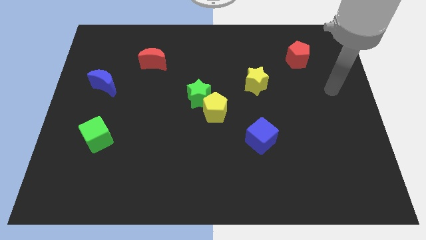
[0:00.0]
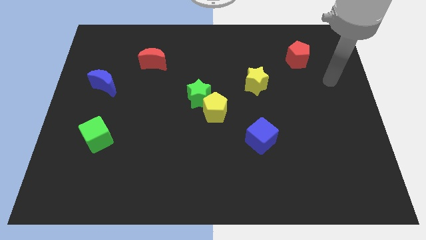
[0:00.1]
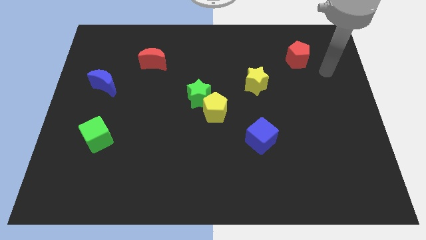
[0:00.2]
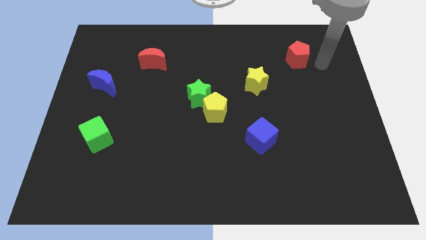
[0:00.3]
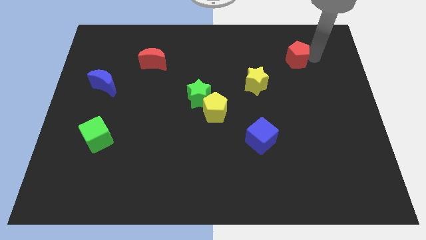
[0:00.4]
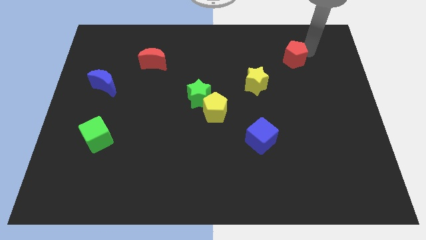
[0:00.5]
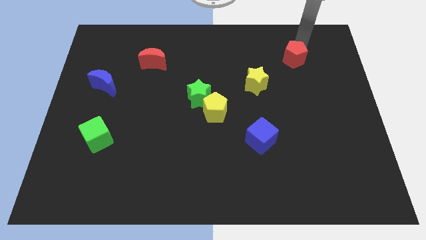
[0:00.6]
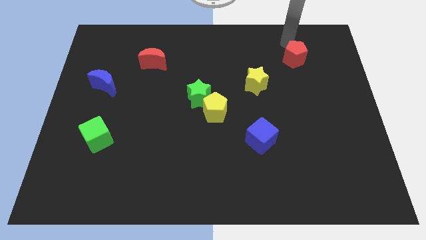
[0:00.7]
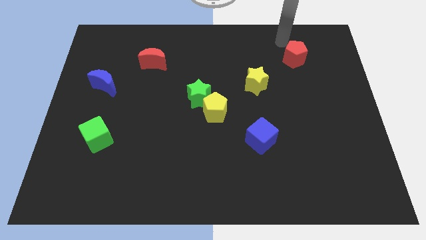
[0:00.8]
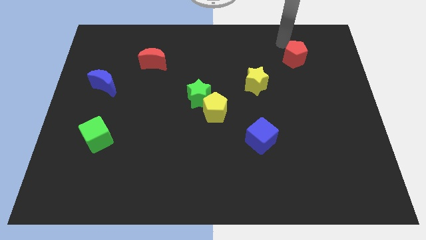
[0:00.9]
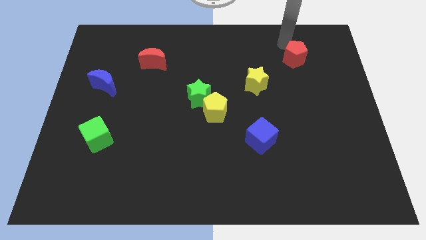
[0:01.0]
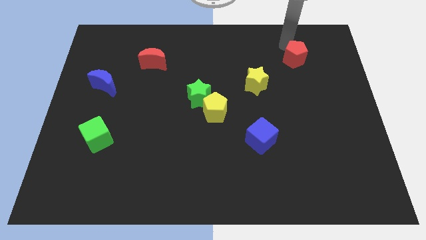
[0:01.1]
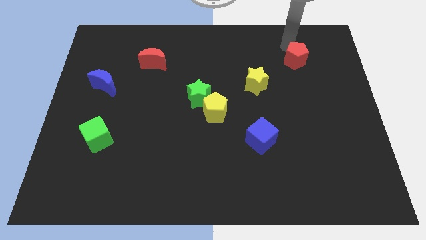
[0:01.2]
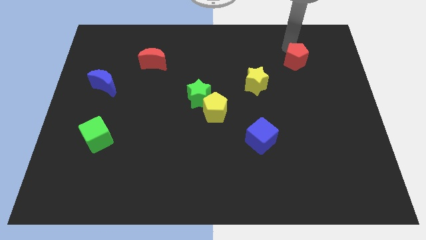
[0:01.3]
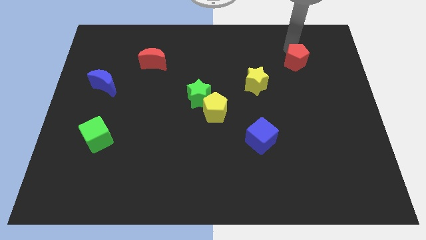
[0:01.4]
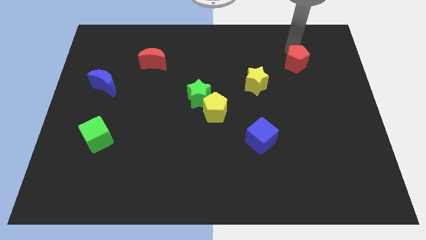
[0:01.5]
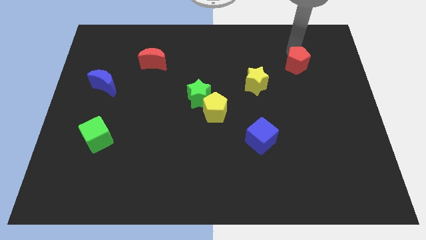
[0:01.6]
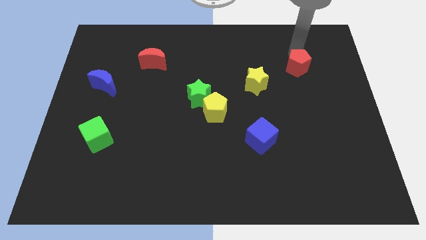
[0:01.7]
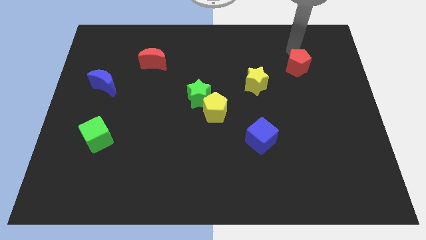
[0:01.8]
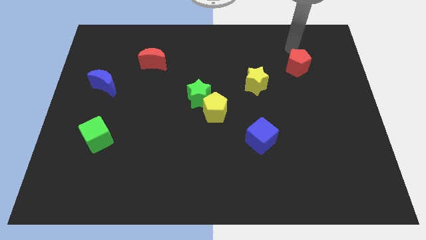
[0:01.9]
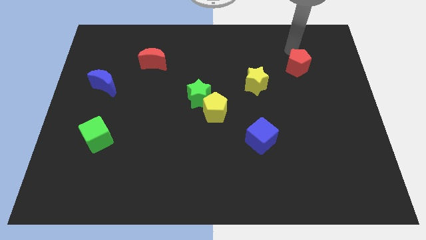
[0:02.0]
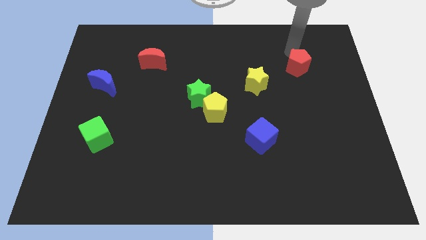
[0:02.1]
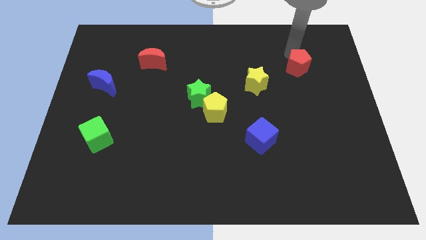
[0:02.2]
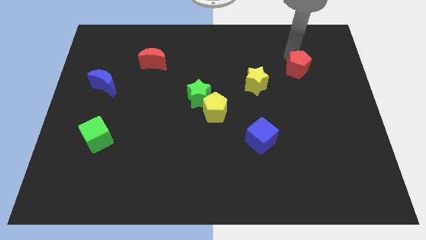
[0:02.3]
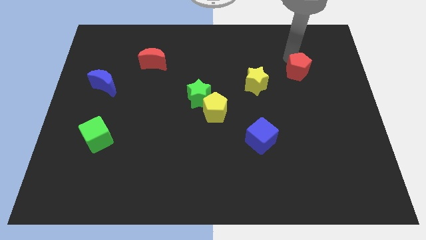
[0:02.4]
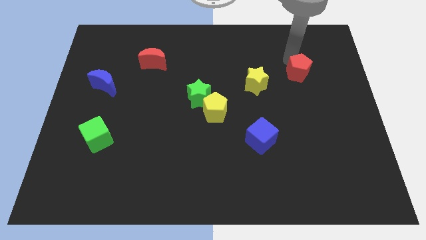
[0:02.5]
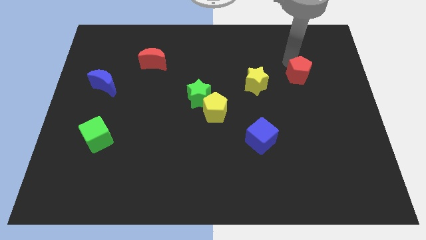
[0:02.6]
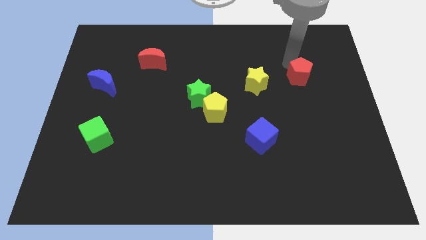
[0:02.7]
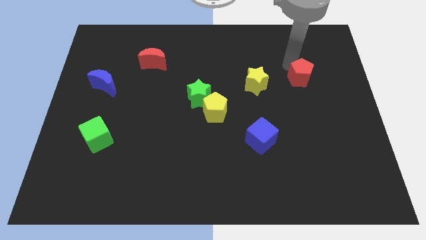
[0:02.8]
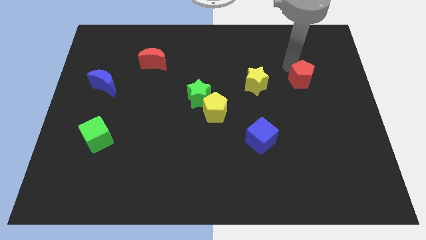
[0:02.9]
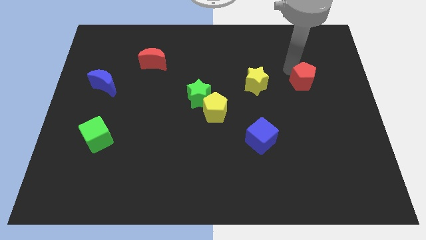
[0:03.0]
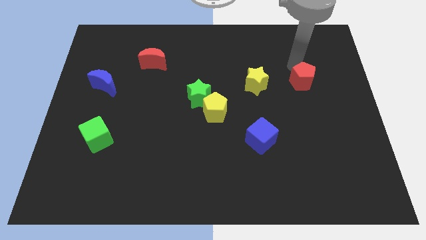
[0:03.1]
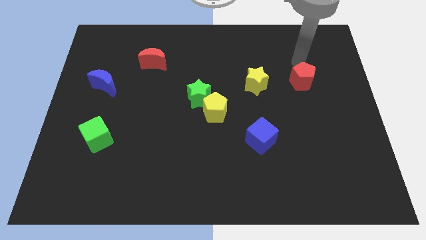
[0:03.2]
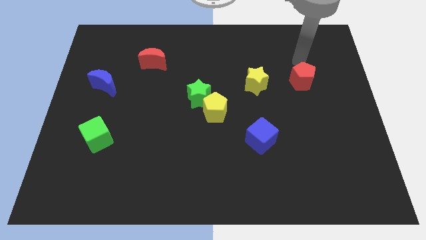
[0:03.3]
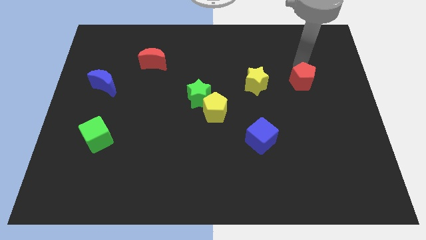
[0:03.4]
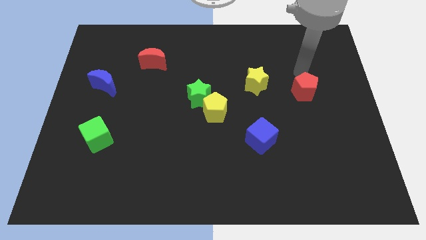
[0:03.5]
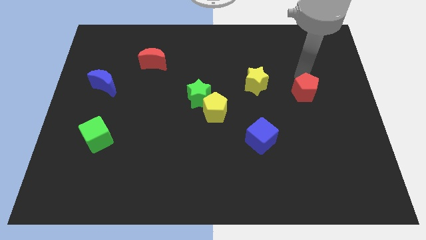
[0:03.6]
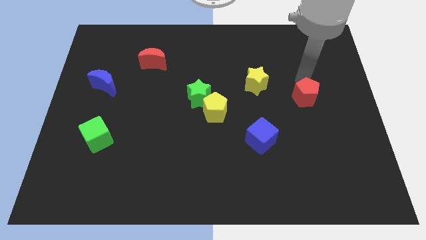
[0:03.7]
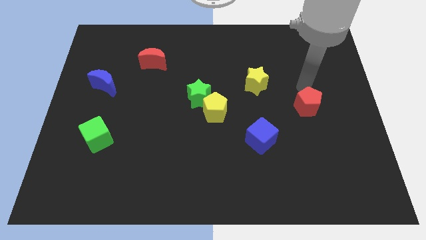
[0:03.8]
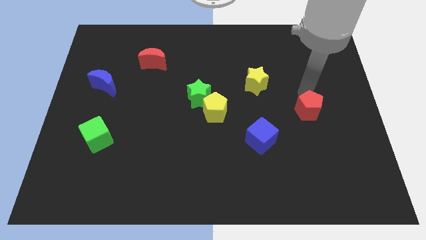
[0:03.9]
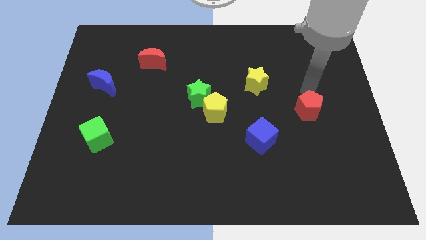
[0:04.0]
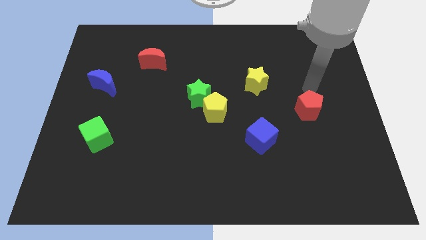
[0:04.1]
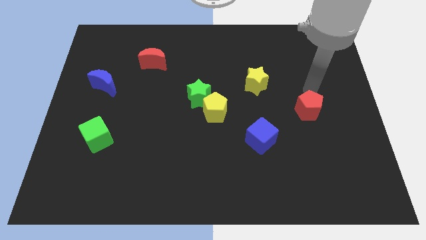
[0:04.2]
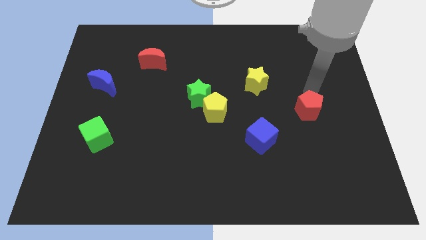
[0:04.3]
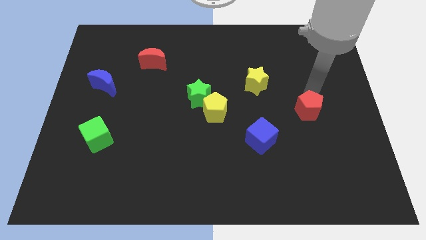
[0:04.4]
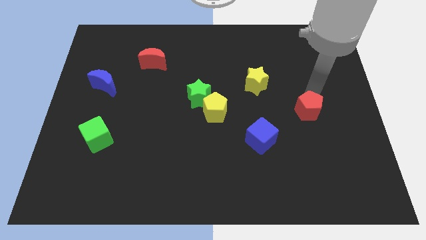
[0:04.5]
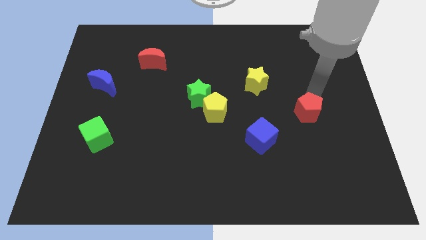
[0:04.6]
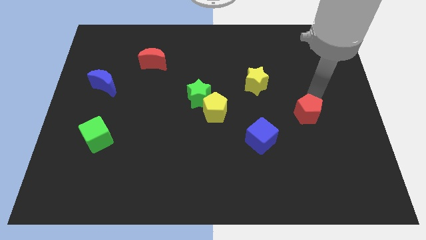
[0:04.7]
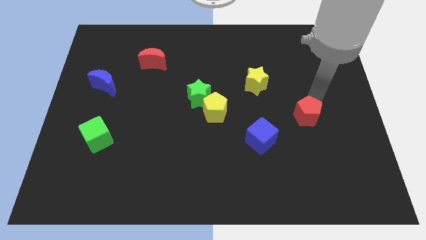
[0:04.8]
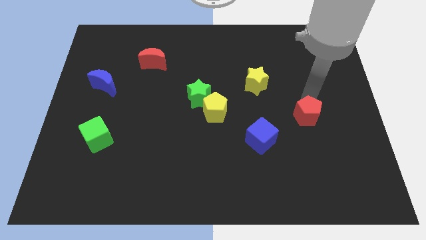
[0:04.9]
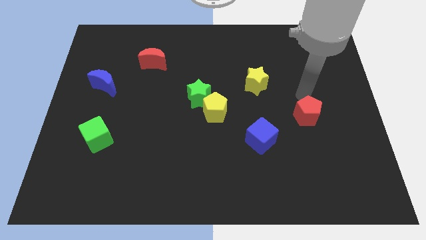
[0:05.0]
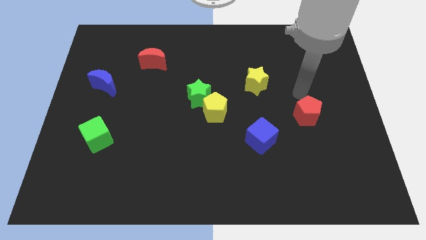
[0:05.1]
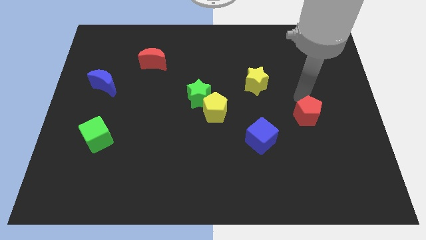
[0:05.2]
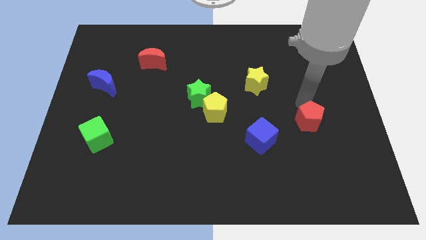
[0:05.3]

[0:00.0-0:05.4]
slide the red pentagon down

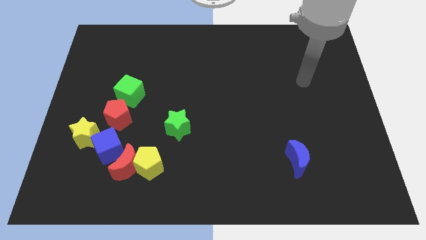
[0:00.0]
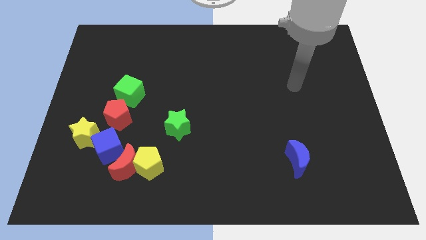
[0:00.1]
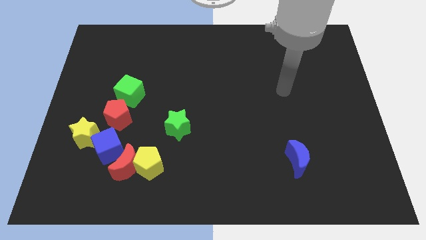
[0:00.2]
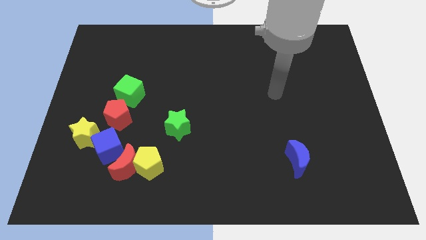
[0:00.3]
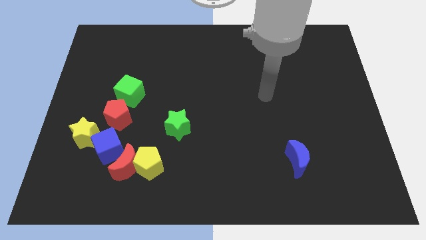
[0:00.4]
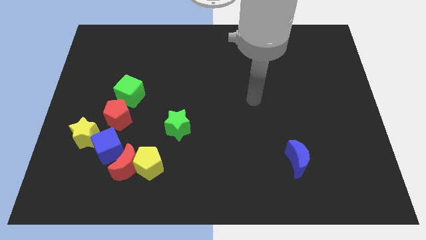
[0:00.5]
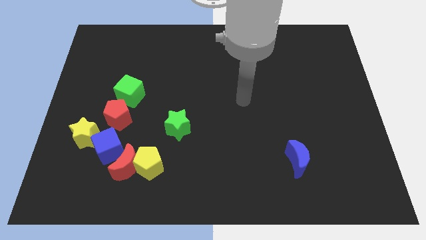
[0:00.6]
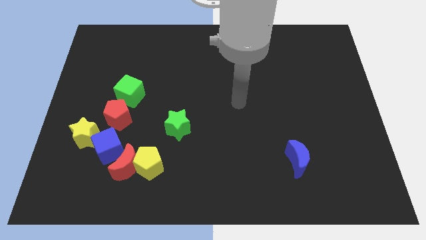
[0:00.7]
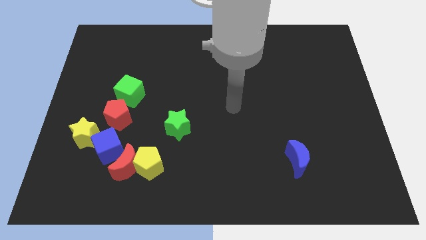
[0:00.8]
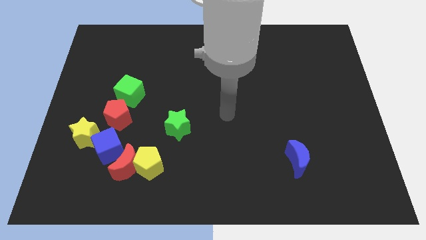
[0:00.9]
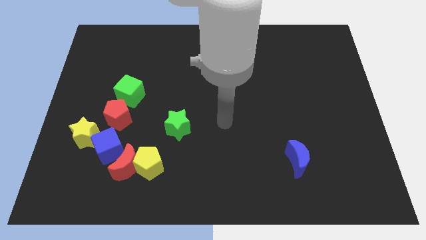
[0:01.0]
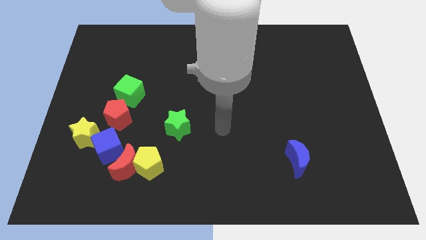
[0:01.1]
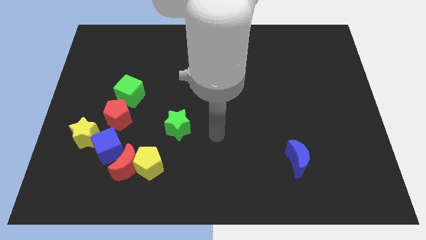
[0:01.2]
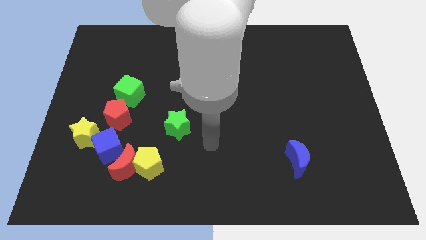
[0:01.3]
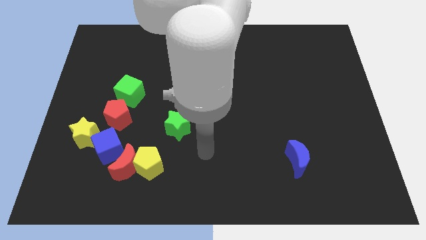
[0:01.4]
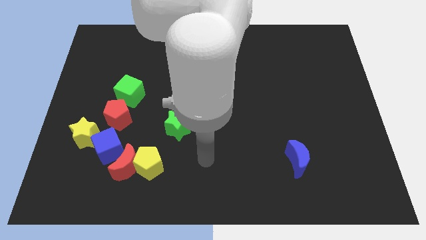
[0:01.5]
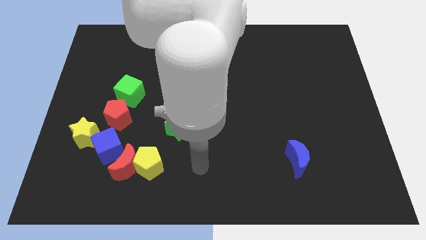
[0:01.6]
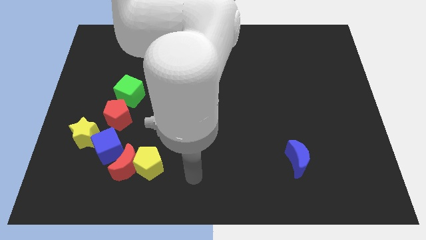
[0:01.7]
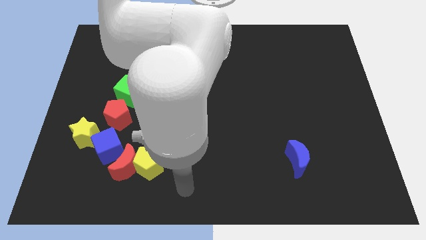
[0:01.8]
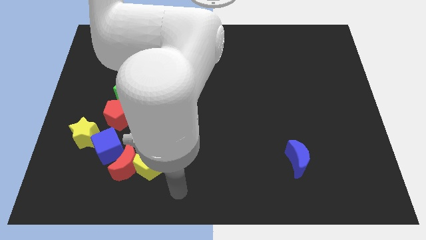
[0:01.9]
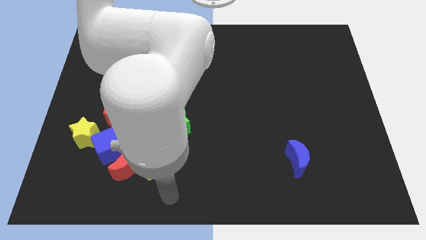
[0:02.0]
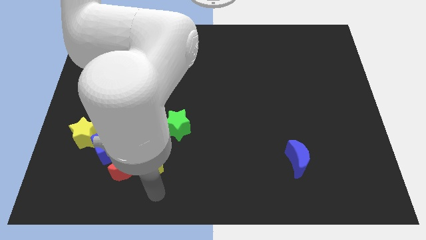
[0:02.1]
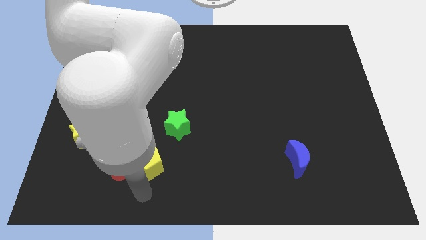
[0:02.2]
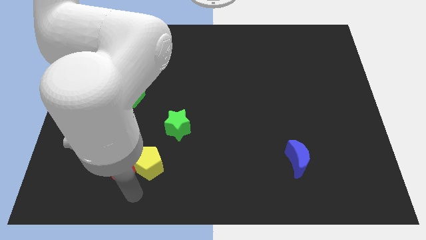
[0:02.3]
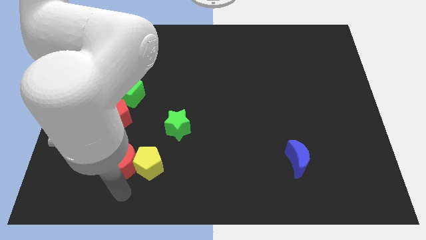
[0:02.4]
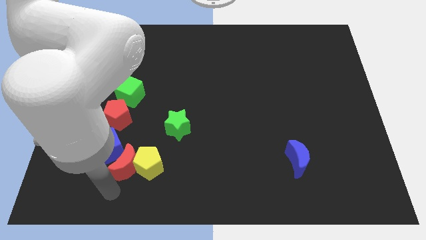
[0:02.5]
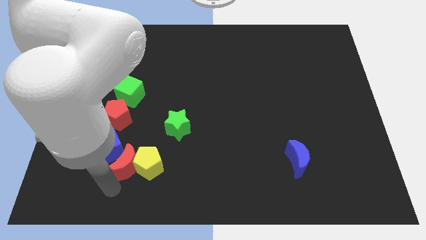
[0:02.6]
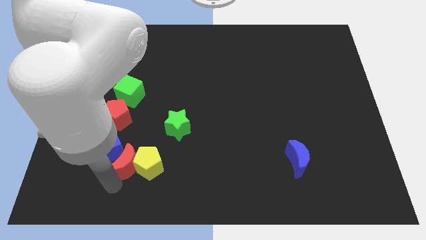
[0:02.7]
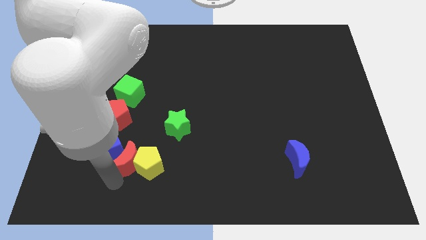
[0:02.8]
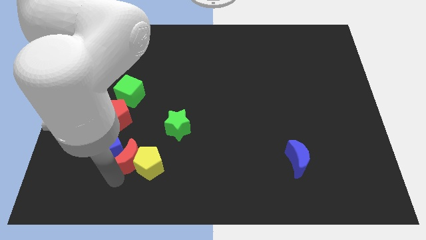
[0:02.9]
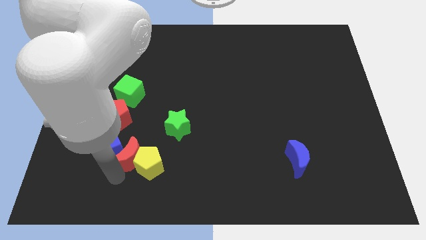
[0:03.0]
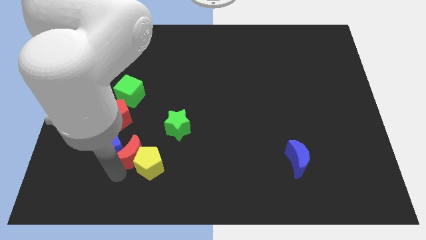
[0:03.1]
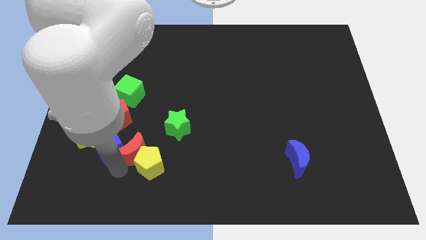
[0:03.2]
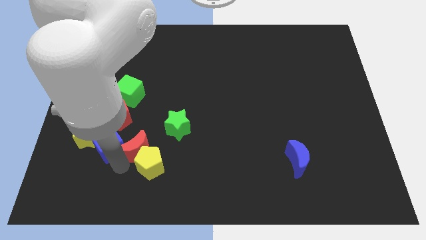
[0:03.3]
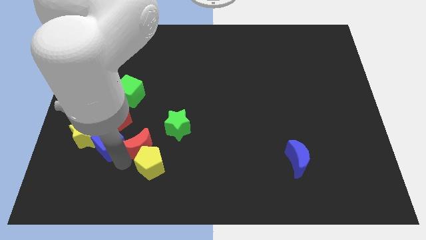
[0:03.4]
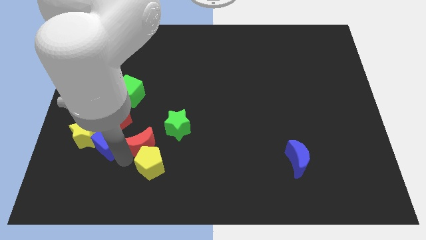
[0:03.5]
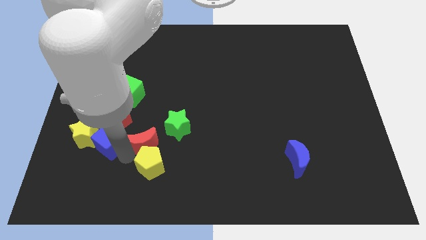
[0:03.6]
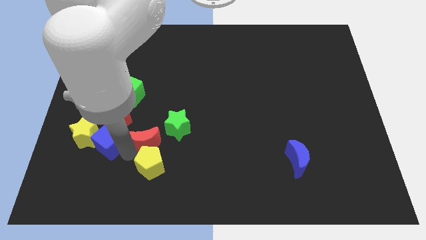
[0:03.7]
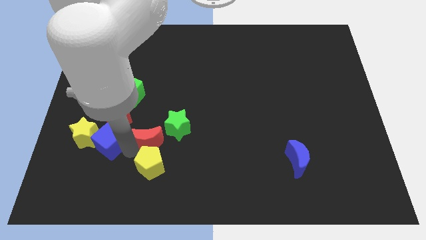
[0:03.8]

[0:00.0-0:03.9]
move the red moon slightly diagonally up and right
